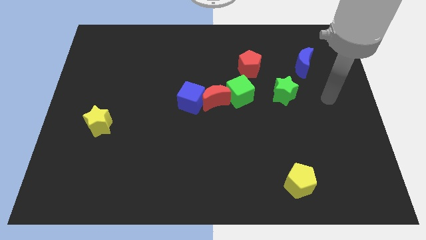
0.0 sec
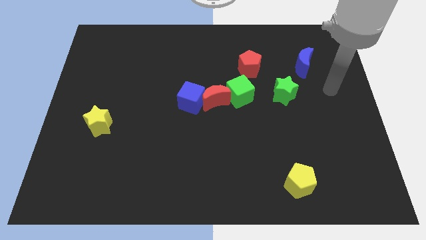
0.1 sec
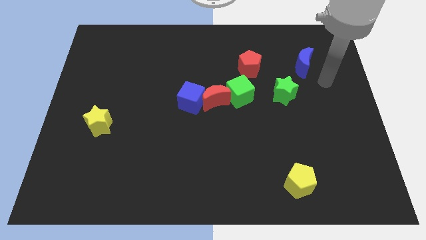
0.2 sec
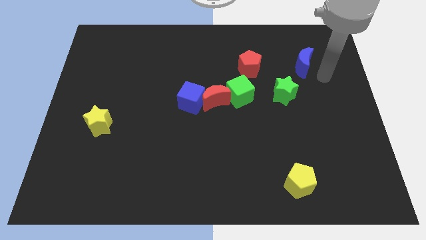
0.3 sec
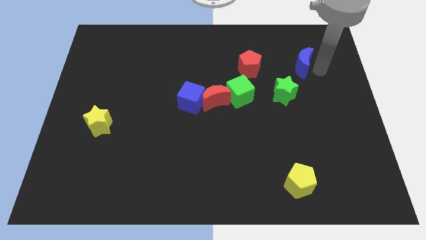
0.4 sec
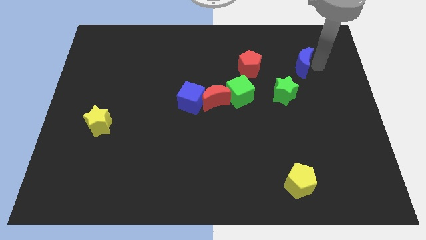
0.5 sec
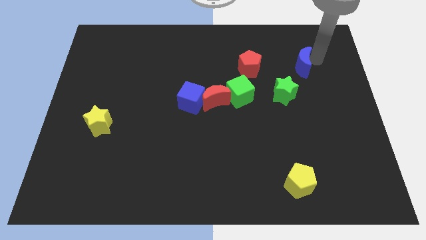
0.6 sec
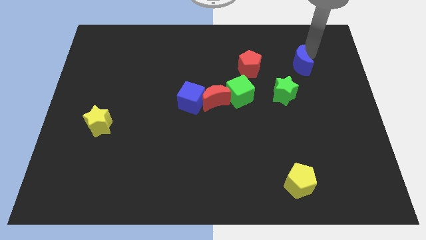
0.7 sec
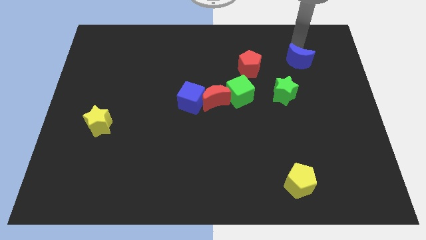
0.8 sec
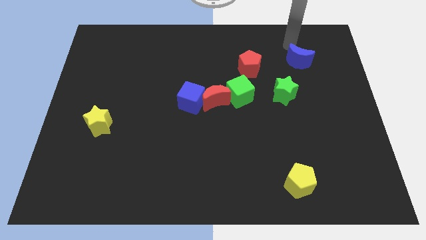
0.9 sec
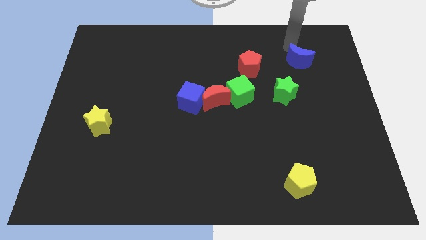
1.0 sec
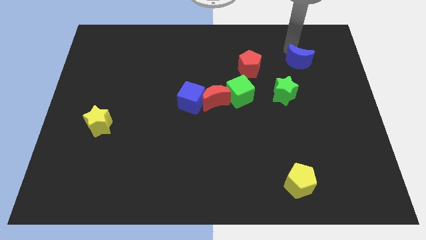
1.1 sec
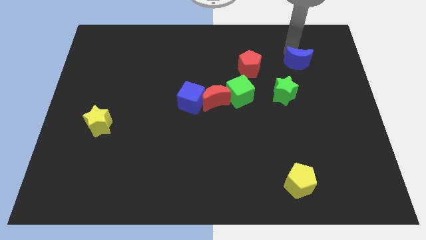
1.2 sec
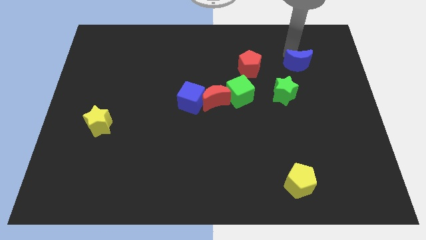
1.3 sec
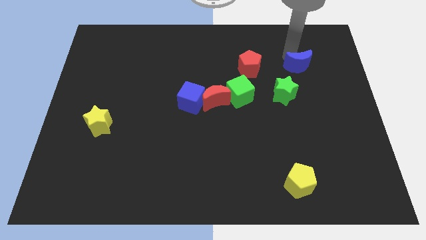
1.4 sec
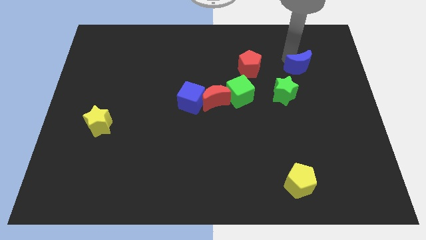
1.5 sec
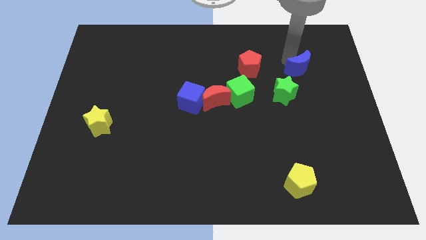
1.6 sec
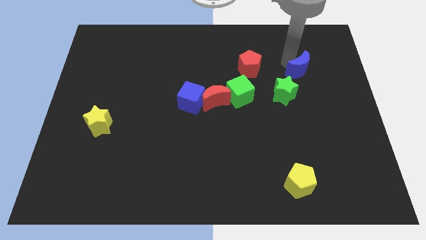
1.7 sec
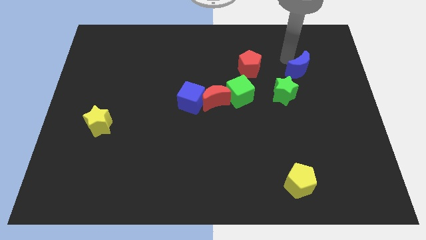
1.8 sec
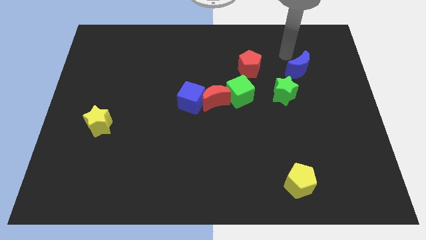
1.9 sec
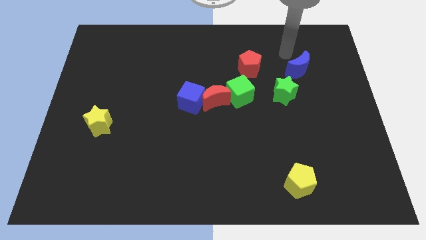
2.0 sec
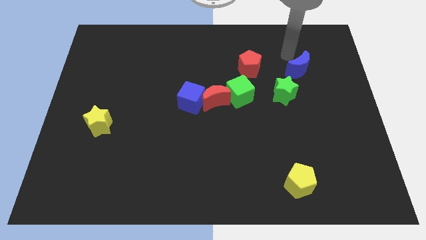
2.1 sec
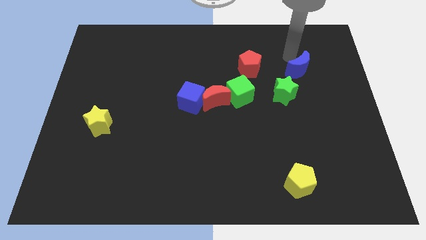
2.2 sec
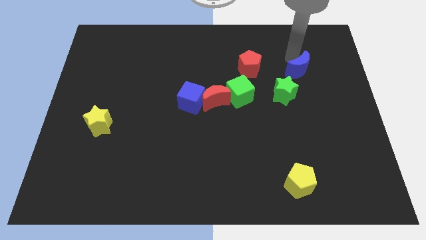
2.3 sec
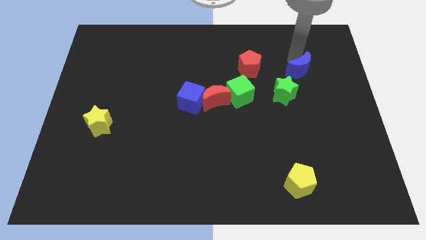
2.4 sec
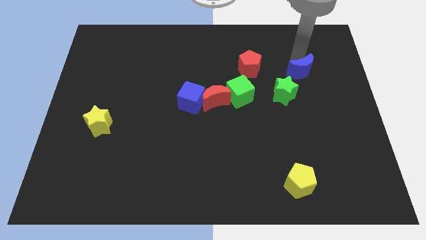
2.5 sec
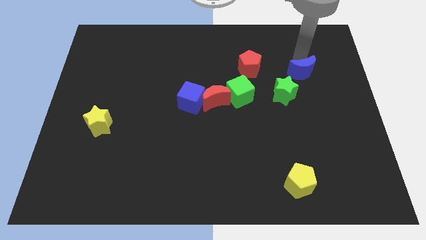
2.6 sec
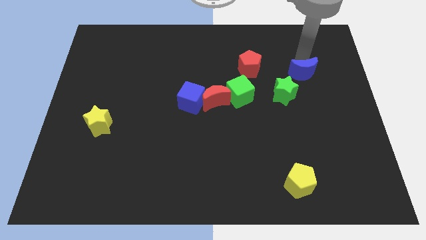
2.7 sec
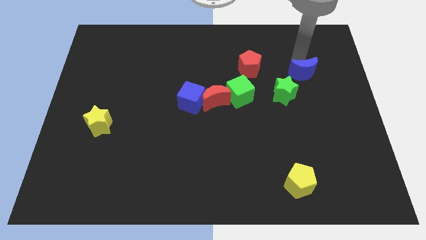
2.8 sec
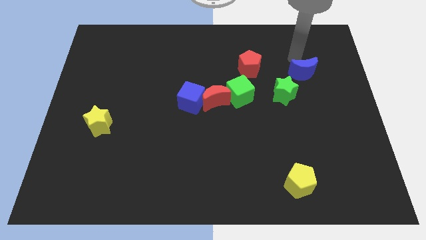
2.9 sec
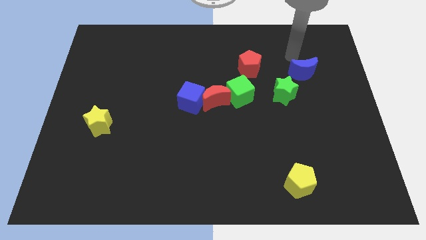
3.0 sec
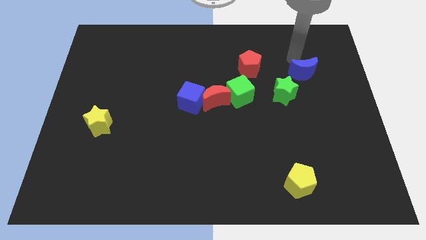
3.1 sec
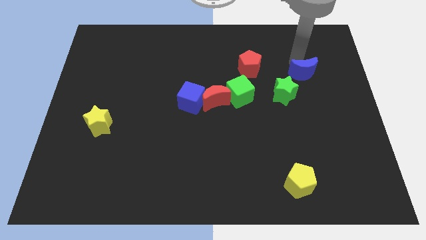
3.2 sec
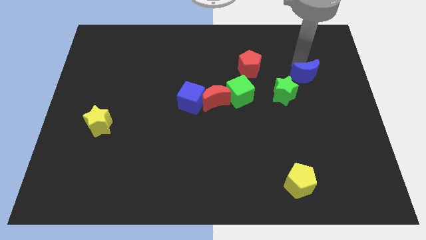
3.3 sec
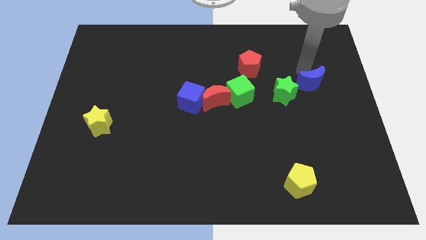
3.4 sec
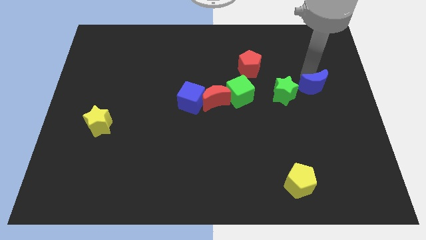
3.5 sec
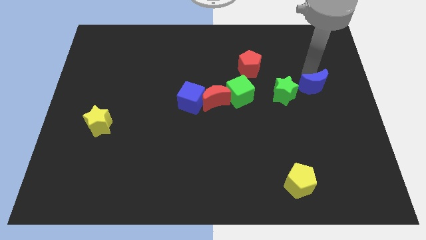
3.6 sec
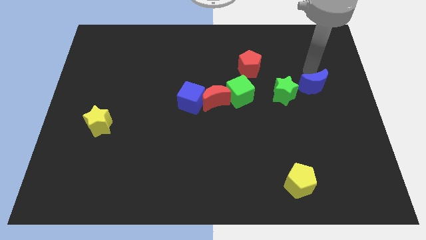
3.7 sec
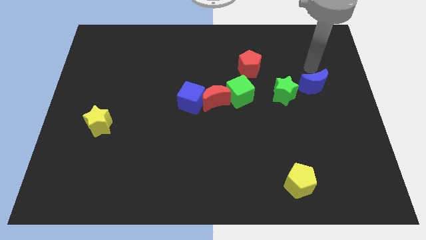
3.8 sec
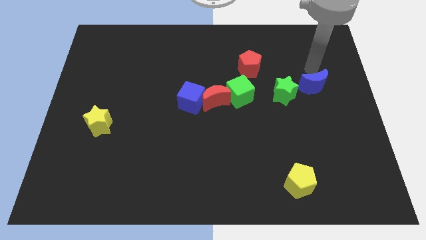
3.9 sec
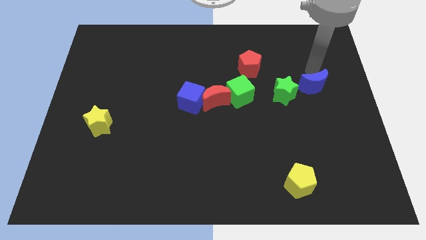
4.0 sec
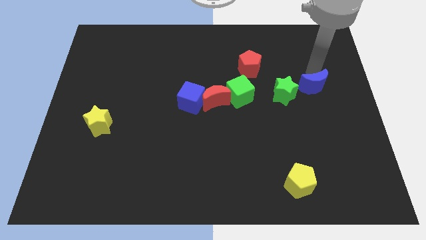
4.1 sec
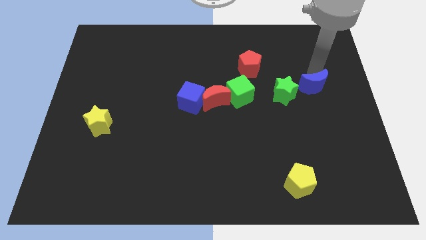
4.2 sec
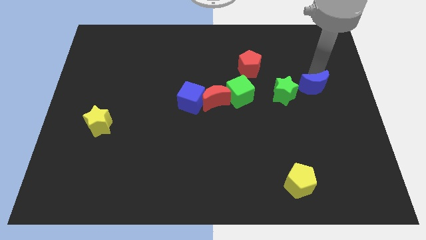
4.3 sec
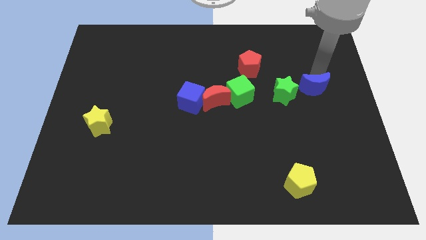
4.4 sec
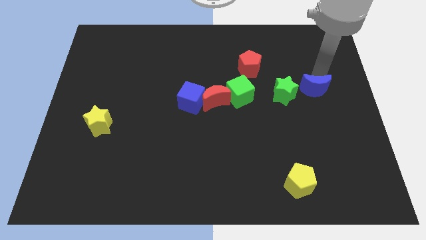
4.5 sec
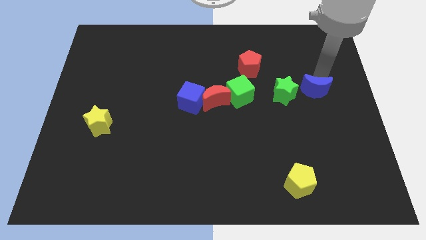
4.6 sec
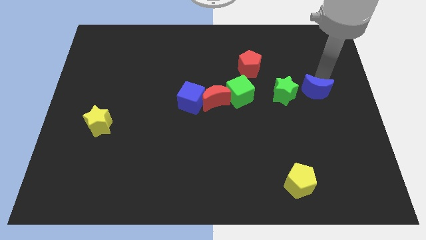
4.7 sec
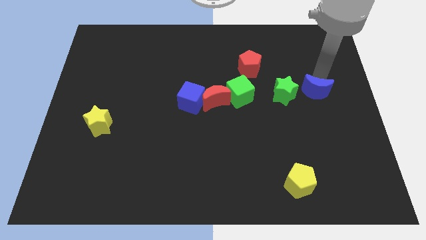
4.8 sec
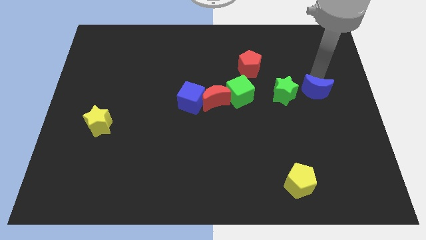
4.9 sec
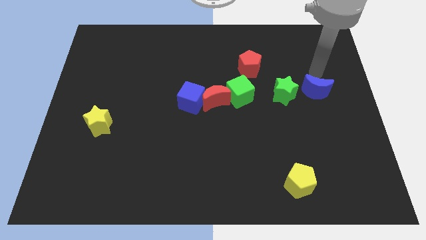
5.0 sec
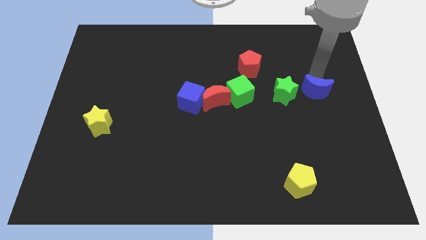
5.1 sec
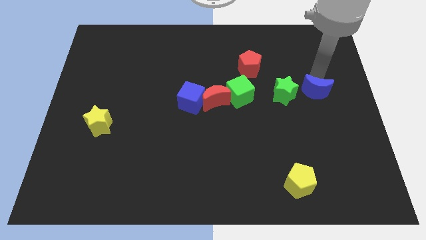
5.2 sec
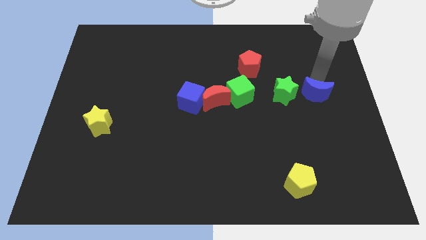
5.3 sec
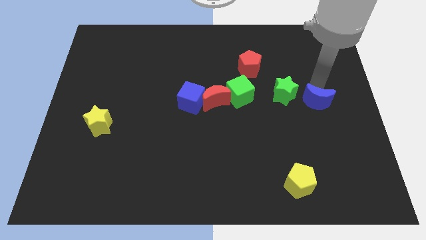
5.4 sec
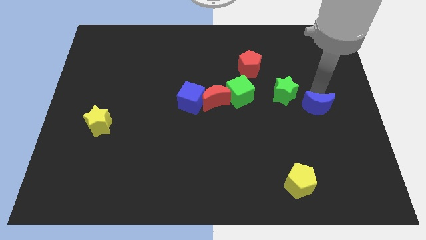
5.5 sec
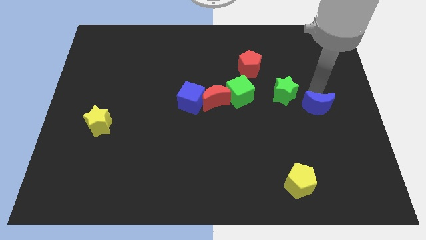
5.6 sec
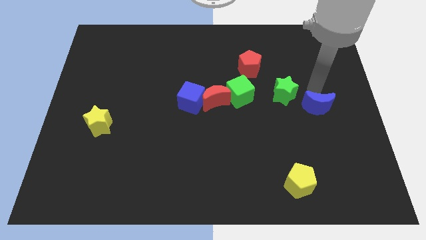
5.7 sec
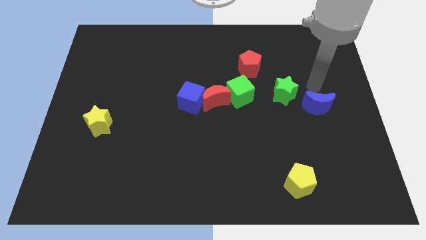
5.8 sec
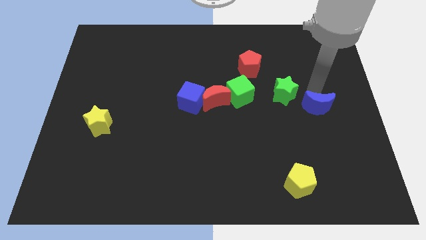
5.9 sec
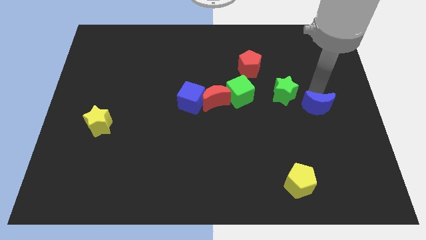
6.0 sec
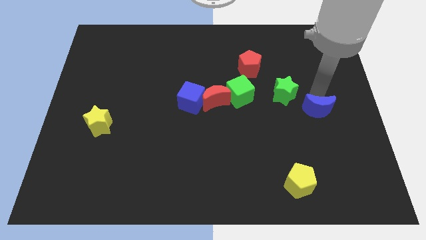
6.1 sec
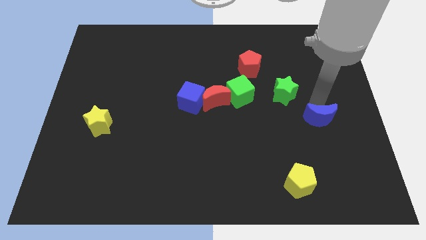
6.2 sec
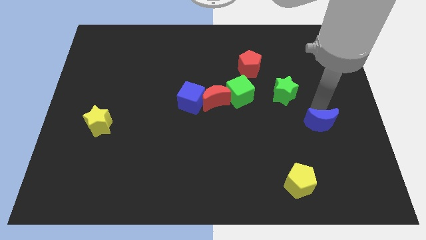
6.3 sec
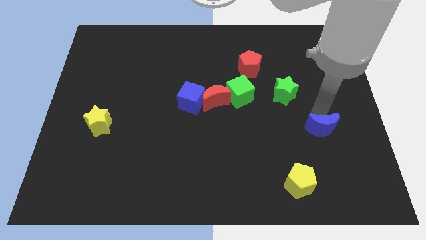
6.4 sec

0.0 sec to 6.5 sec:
push the blue moon down

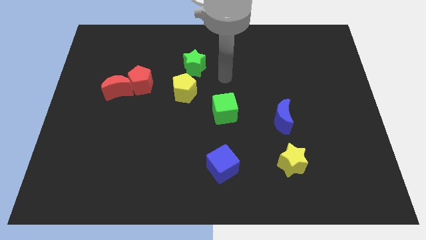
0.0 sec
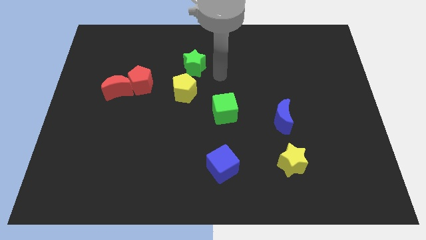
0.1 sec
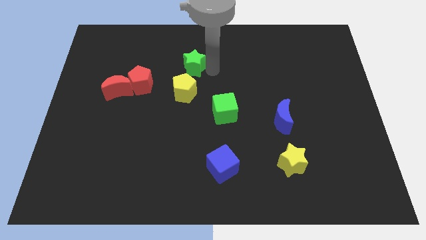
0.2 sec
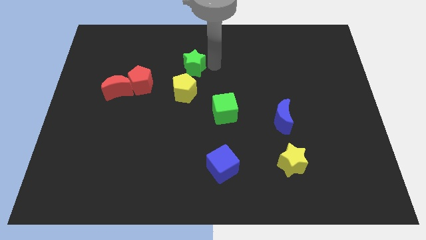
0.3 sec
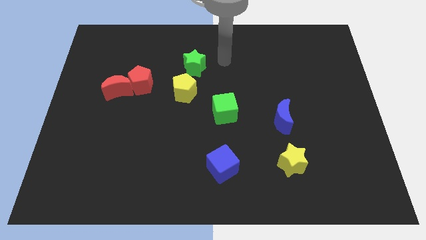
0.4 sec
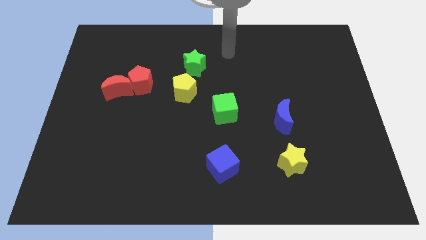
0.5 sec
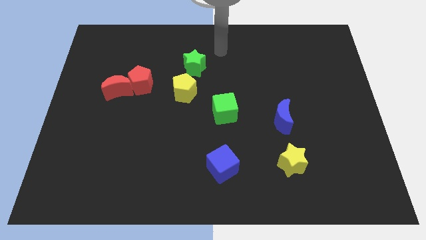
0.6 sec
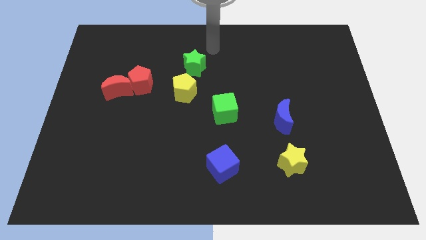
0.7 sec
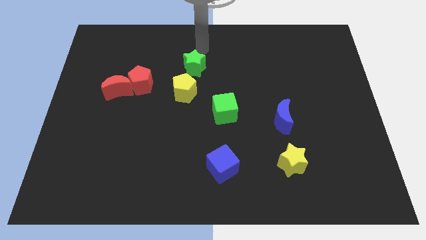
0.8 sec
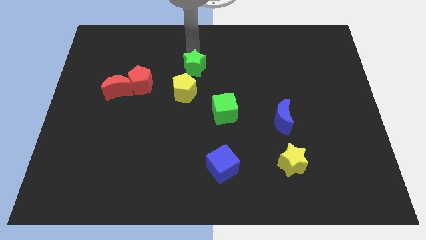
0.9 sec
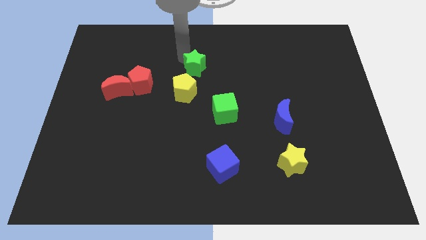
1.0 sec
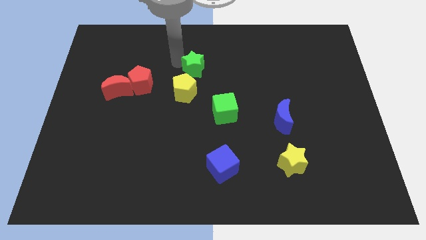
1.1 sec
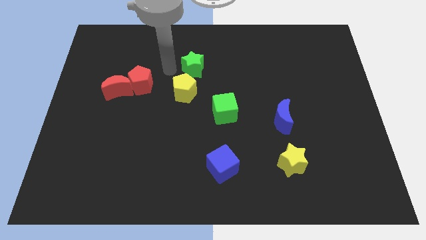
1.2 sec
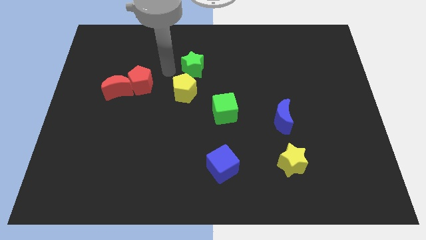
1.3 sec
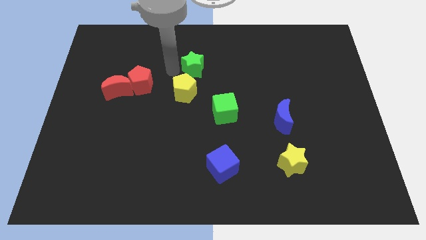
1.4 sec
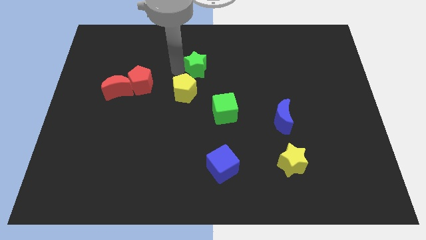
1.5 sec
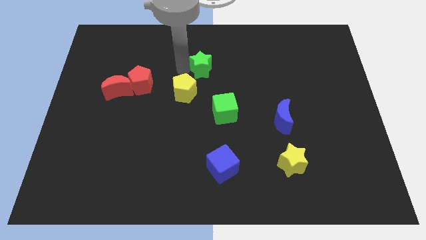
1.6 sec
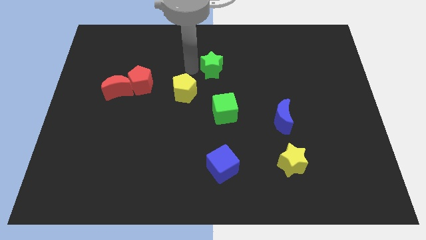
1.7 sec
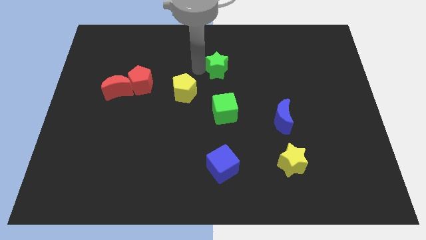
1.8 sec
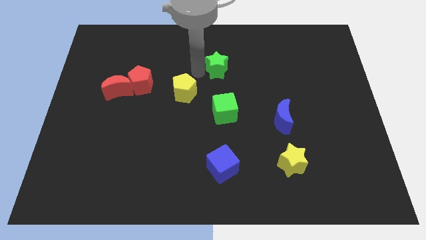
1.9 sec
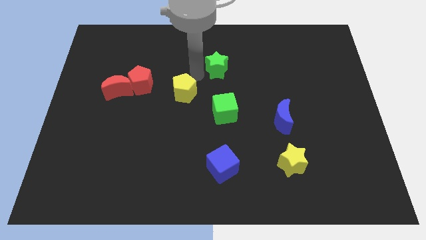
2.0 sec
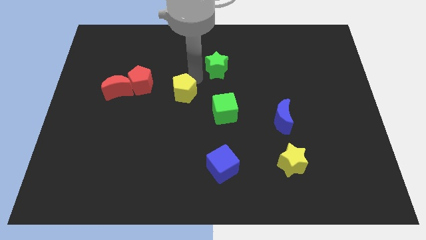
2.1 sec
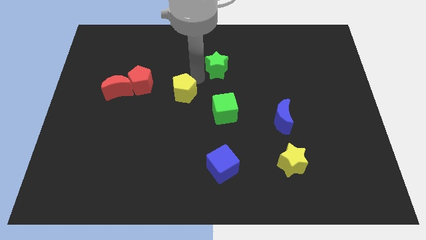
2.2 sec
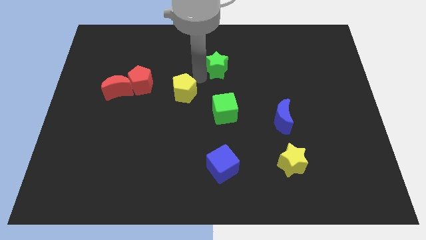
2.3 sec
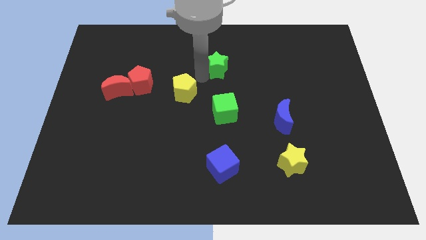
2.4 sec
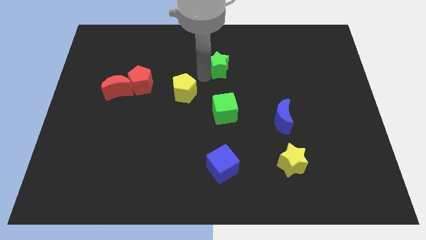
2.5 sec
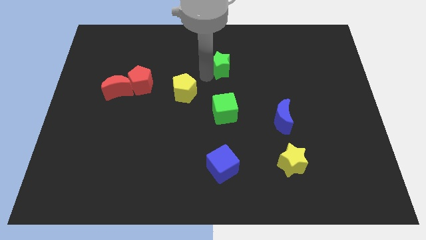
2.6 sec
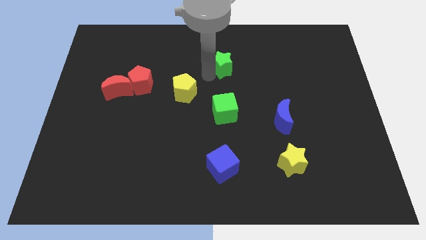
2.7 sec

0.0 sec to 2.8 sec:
move the green star to the right a bit
